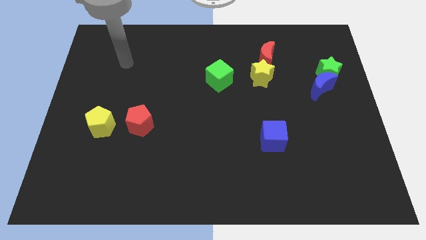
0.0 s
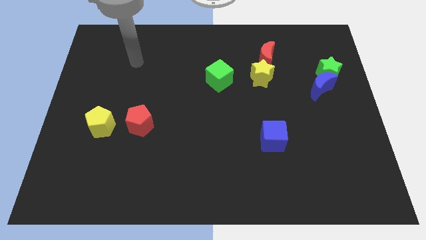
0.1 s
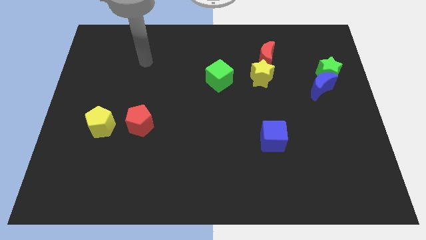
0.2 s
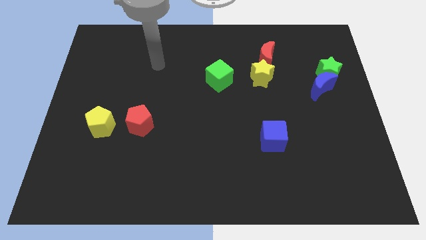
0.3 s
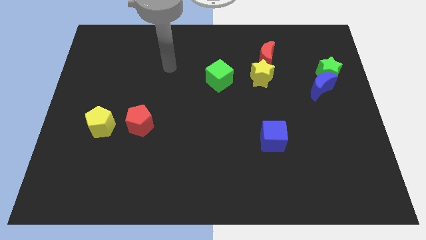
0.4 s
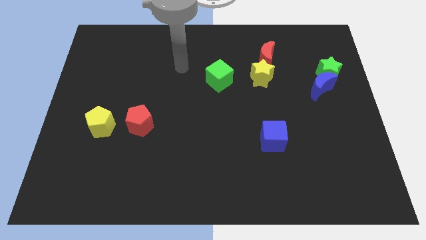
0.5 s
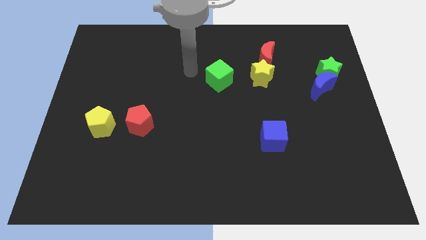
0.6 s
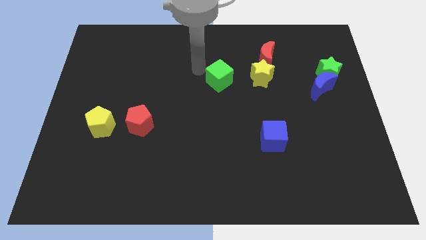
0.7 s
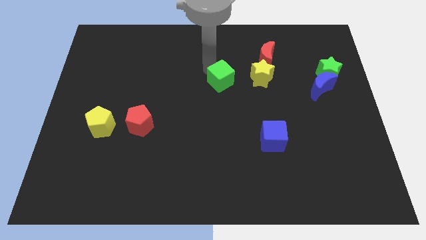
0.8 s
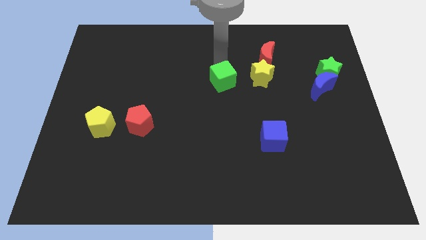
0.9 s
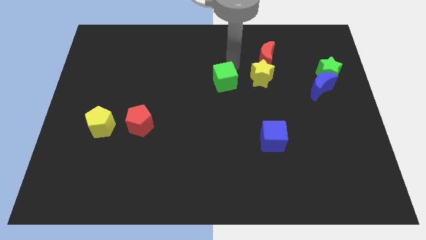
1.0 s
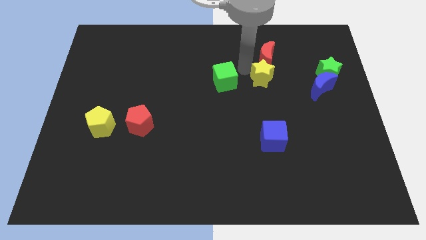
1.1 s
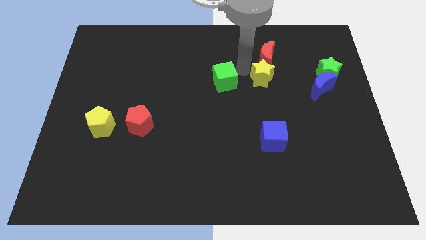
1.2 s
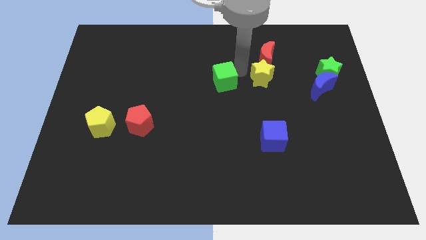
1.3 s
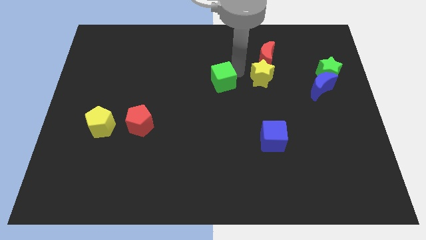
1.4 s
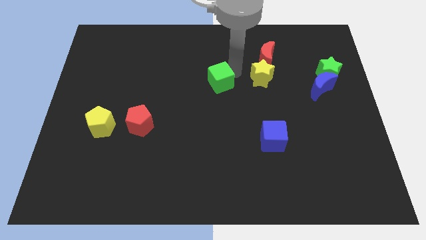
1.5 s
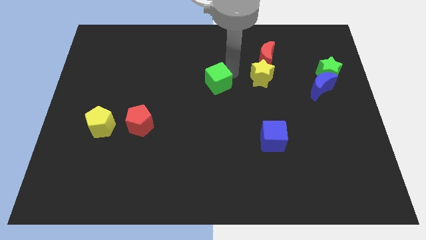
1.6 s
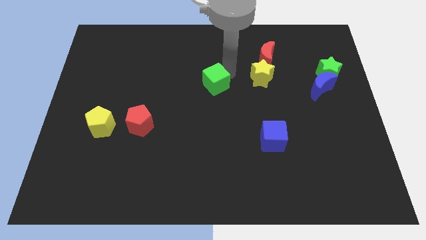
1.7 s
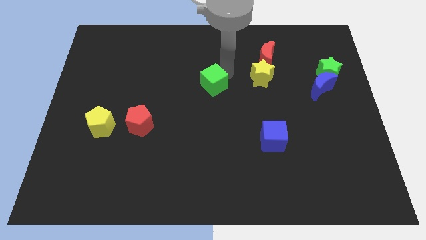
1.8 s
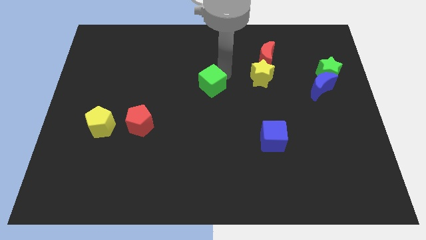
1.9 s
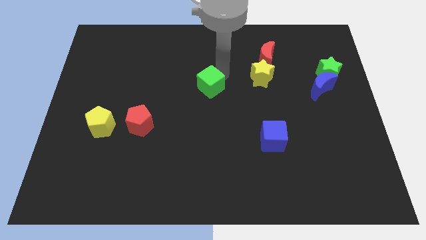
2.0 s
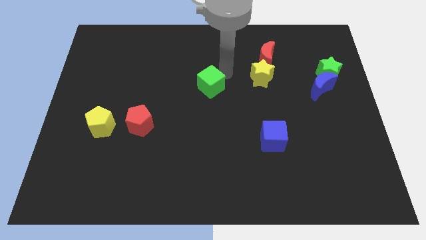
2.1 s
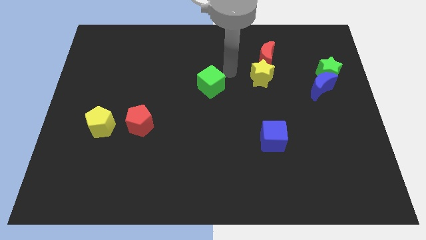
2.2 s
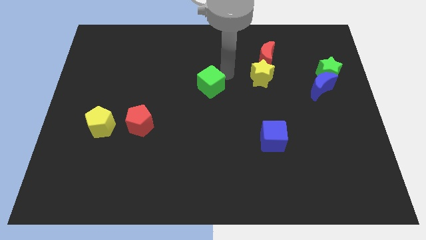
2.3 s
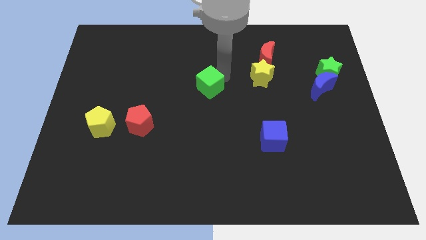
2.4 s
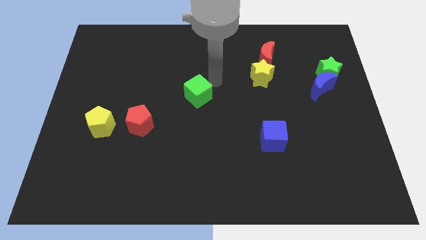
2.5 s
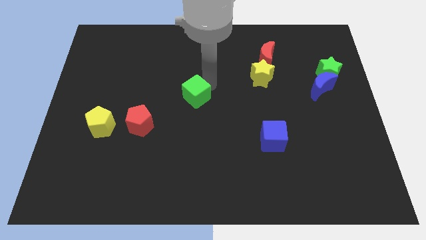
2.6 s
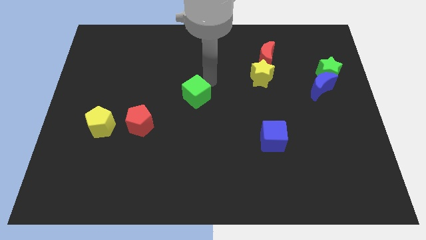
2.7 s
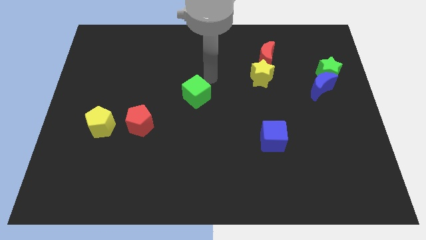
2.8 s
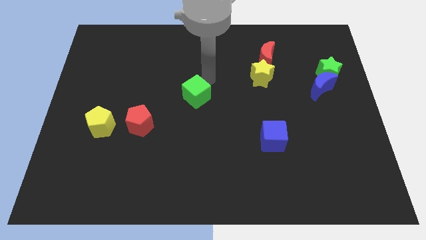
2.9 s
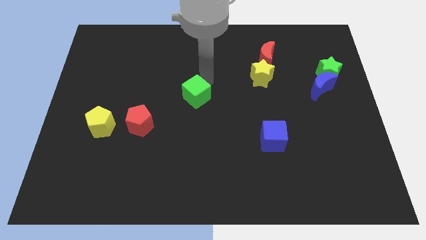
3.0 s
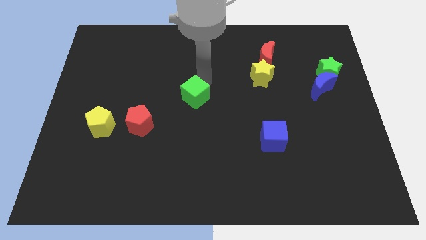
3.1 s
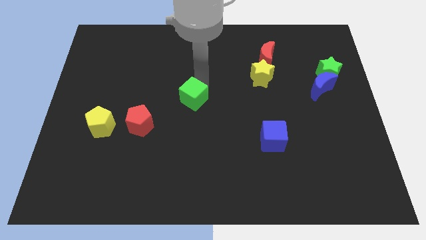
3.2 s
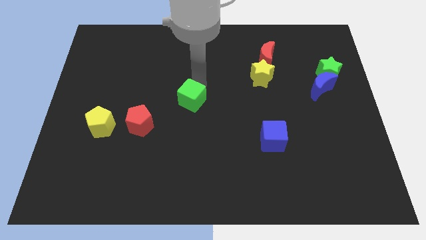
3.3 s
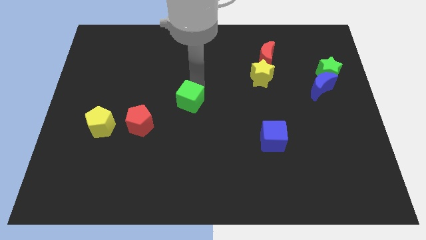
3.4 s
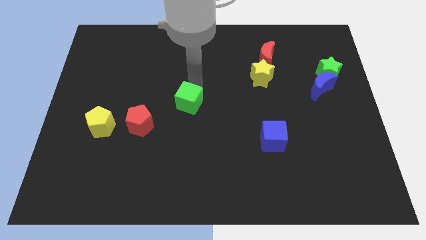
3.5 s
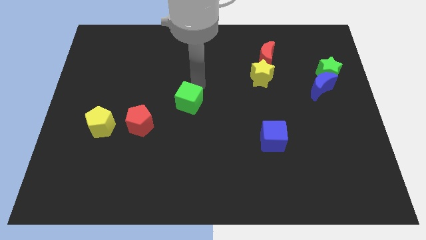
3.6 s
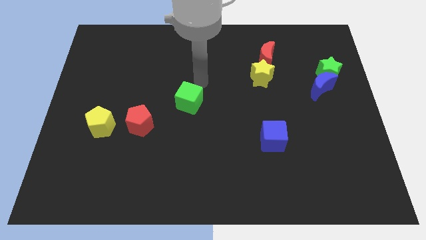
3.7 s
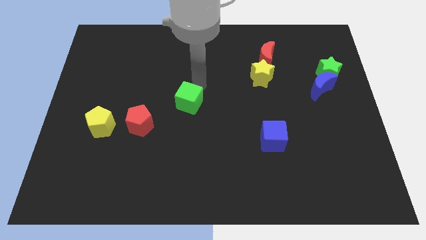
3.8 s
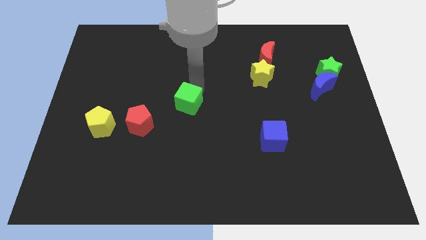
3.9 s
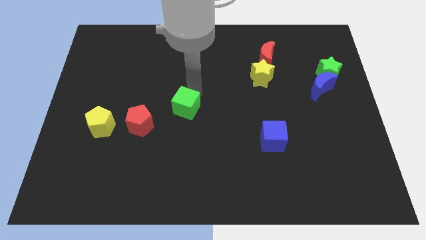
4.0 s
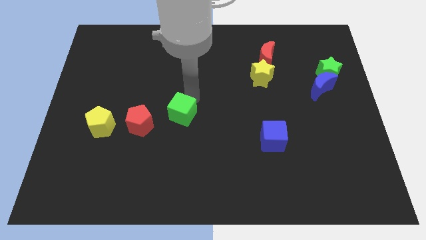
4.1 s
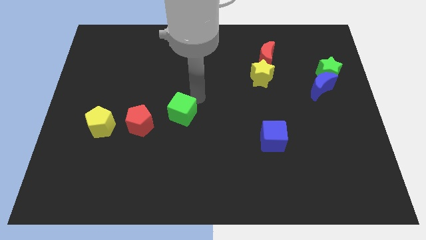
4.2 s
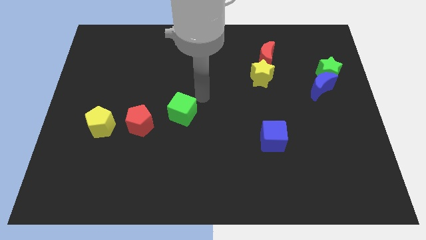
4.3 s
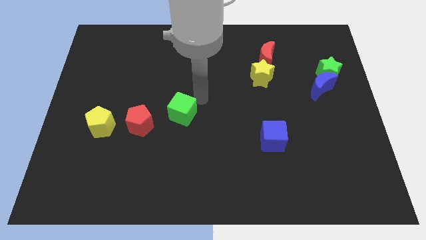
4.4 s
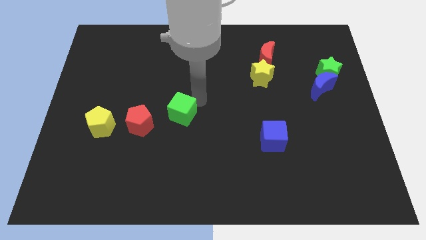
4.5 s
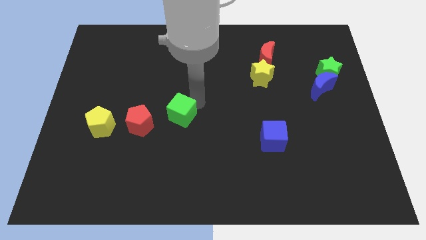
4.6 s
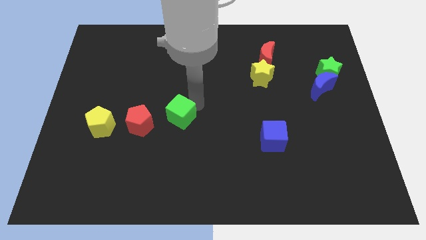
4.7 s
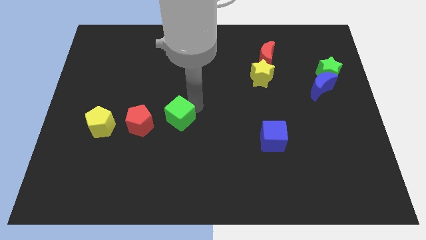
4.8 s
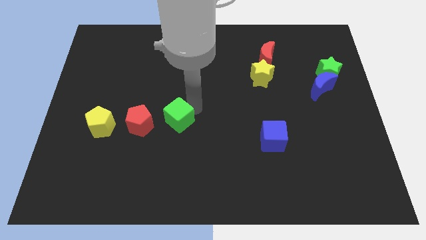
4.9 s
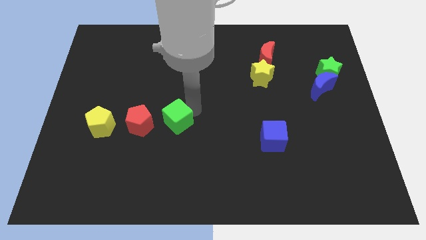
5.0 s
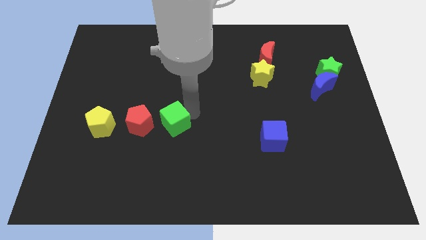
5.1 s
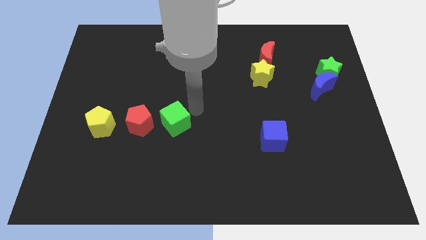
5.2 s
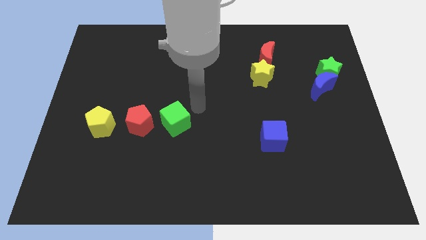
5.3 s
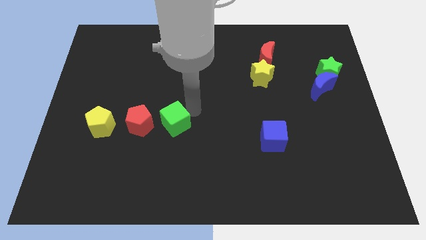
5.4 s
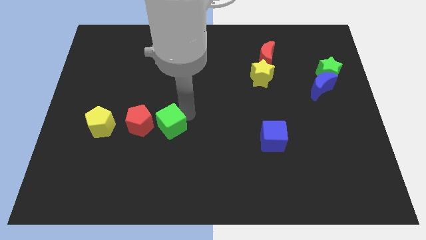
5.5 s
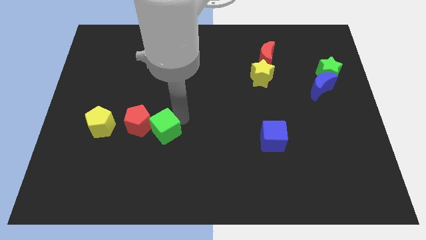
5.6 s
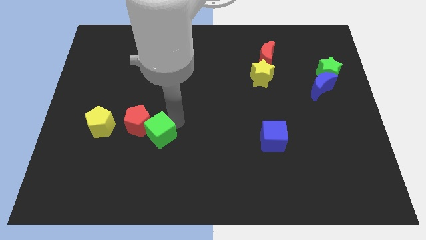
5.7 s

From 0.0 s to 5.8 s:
push the green cube down and to the left diagonally

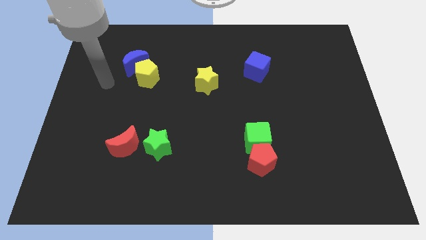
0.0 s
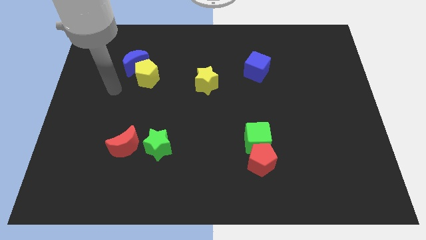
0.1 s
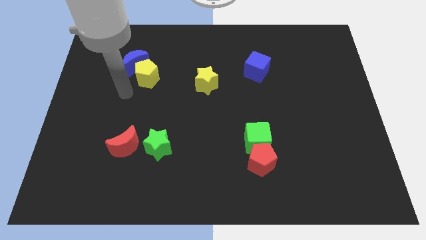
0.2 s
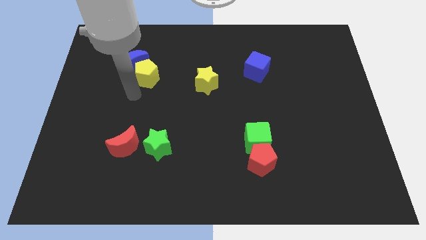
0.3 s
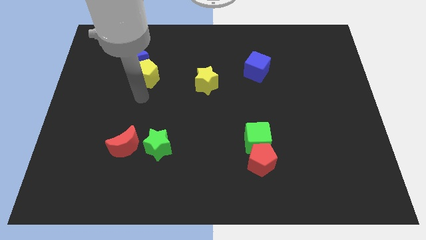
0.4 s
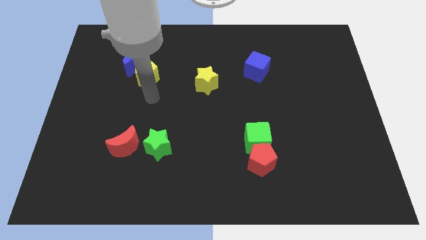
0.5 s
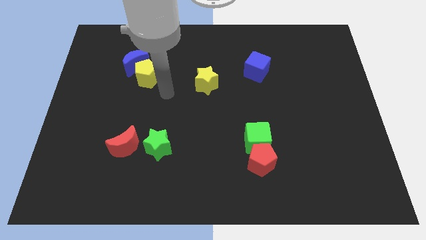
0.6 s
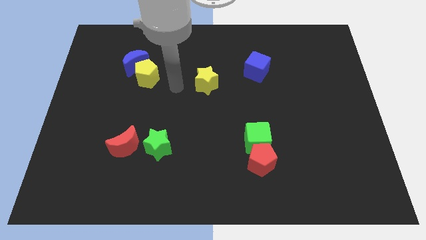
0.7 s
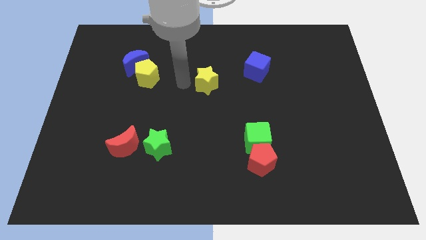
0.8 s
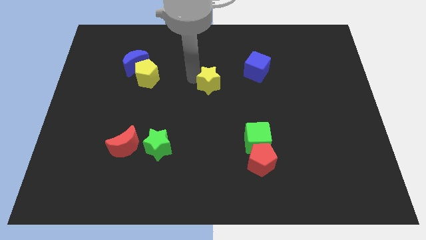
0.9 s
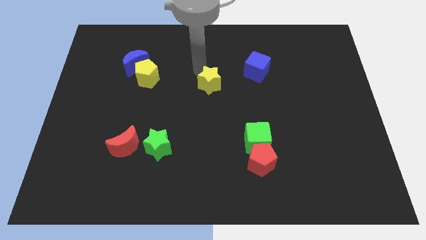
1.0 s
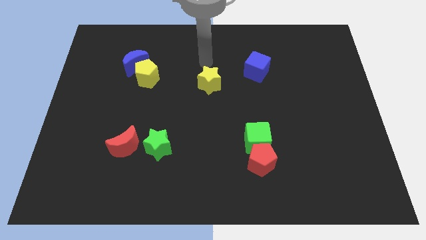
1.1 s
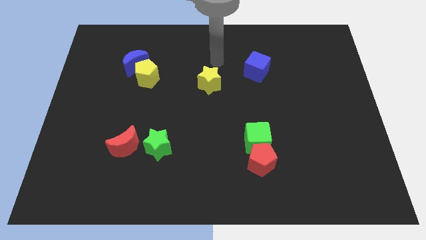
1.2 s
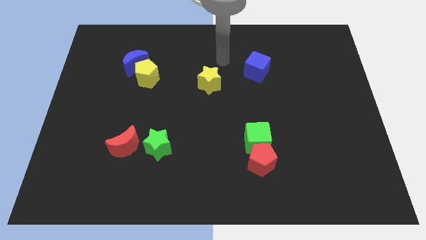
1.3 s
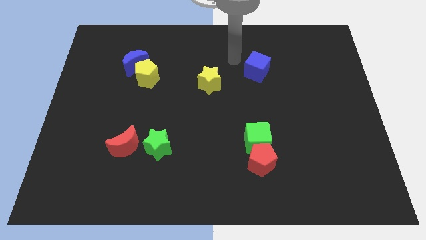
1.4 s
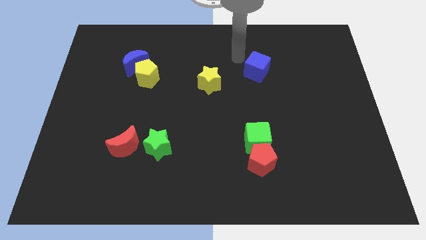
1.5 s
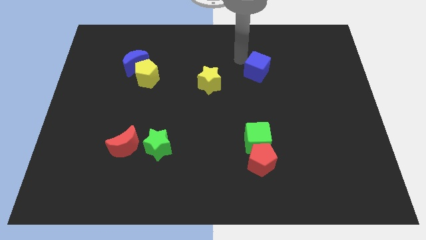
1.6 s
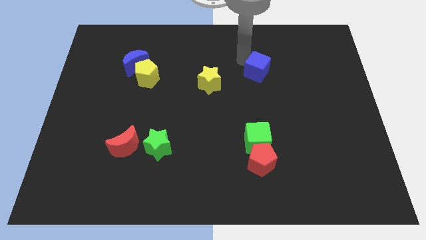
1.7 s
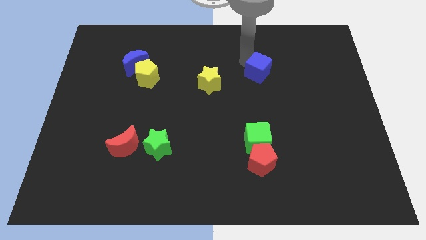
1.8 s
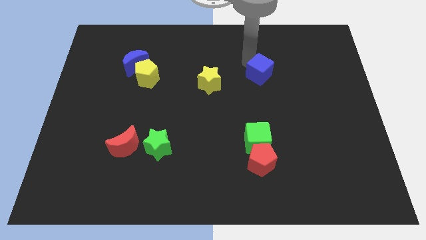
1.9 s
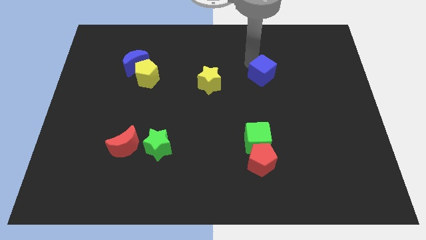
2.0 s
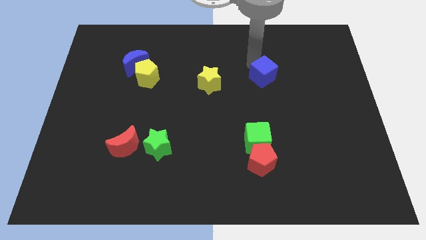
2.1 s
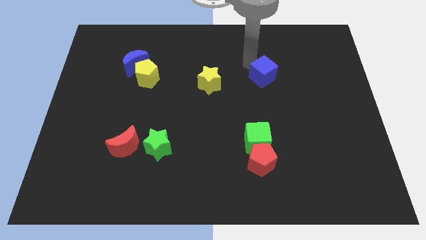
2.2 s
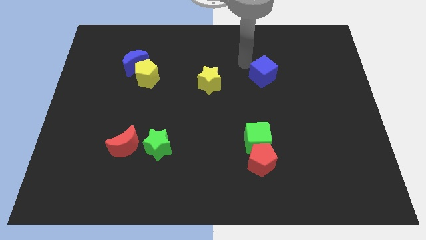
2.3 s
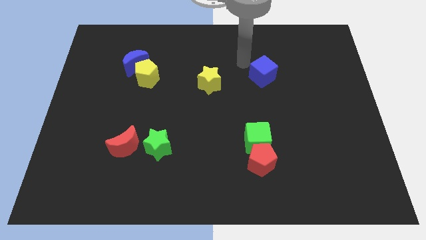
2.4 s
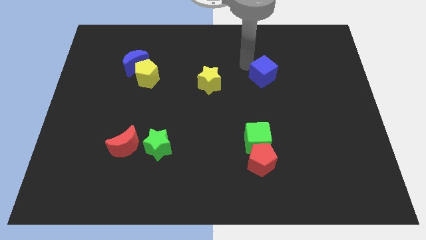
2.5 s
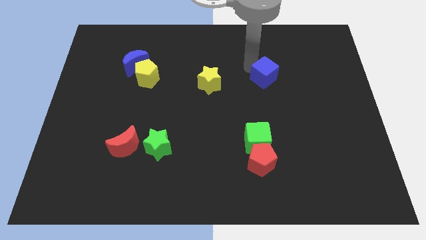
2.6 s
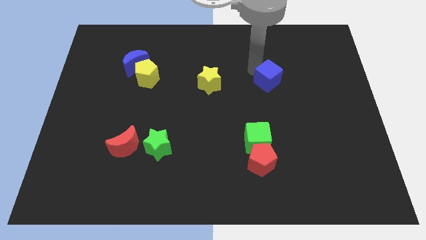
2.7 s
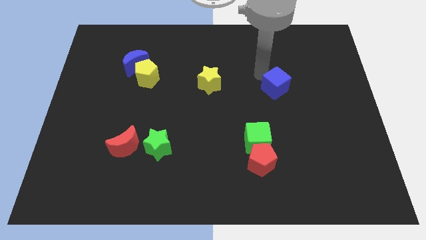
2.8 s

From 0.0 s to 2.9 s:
slide the blue cube down and to the right slightly
